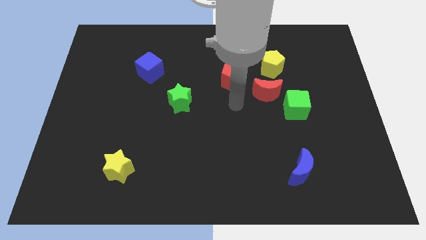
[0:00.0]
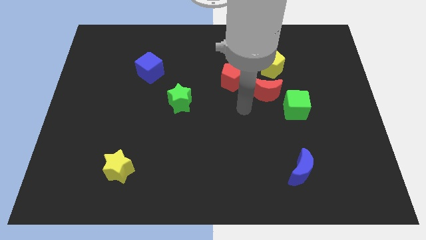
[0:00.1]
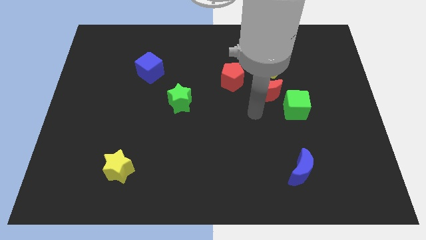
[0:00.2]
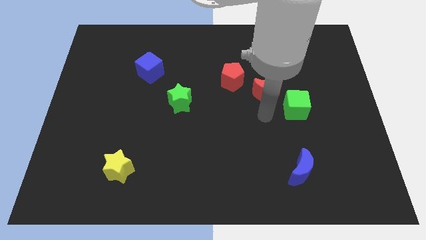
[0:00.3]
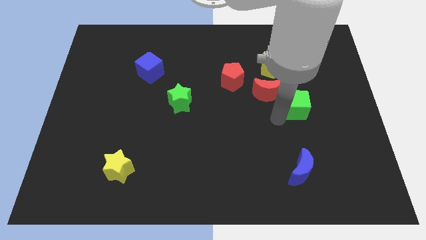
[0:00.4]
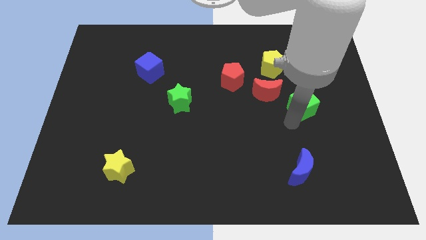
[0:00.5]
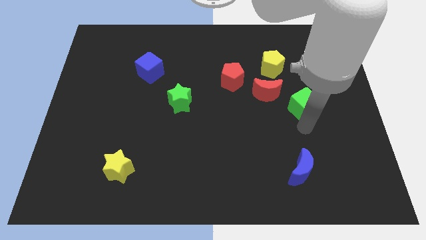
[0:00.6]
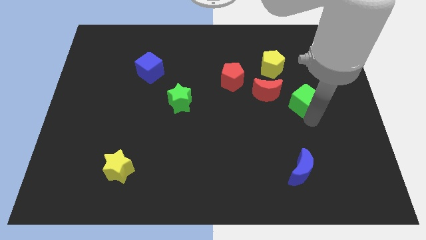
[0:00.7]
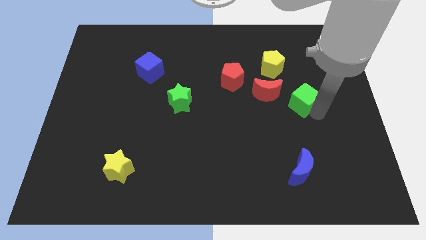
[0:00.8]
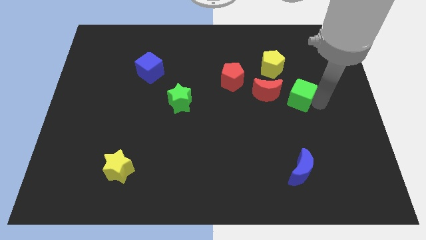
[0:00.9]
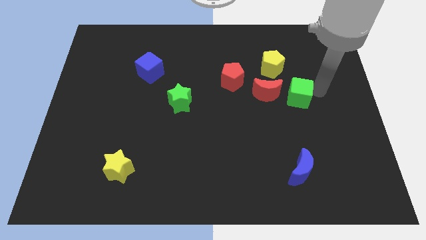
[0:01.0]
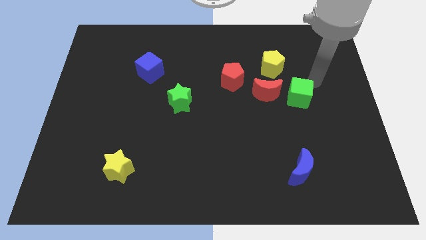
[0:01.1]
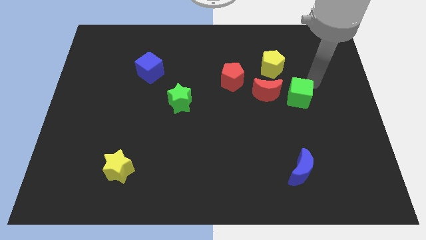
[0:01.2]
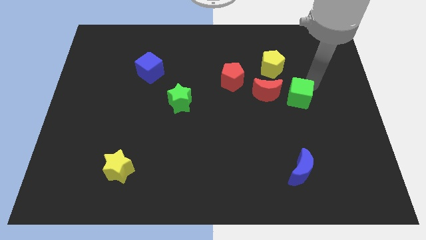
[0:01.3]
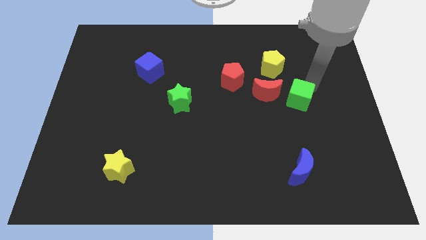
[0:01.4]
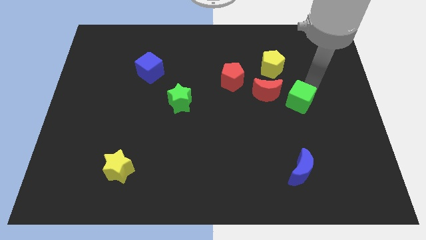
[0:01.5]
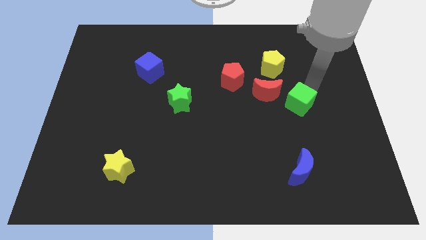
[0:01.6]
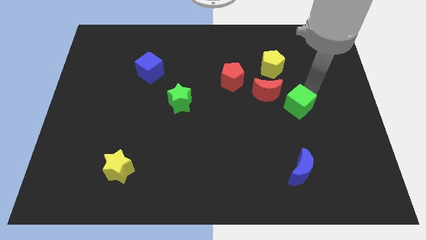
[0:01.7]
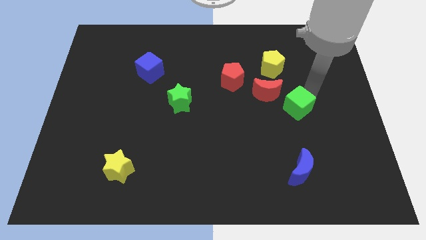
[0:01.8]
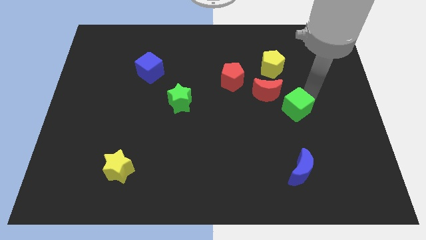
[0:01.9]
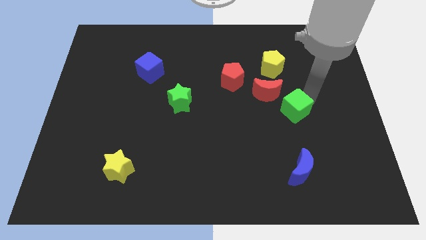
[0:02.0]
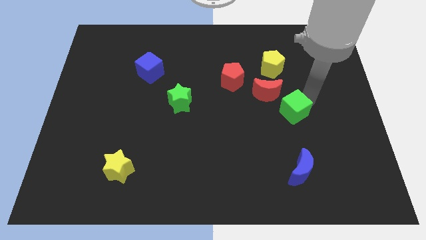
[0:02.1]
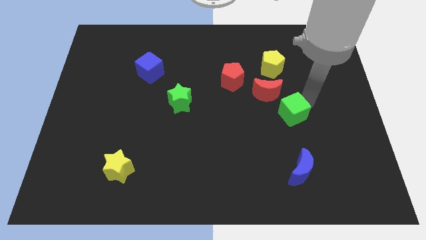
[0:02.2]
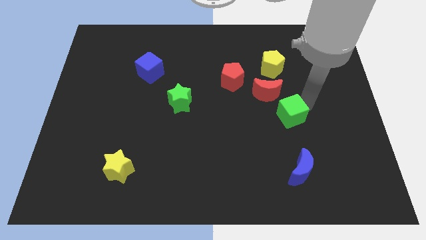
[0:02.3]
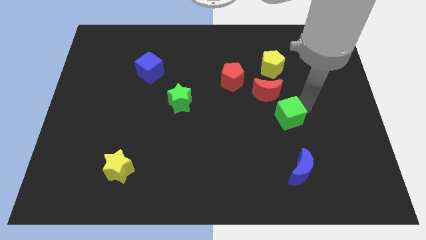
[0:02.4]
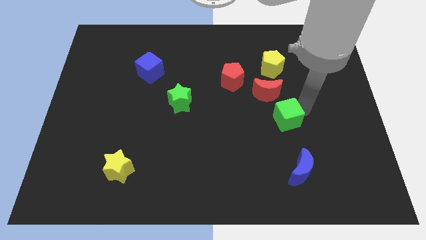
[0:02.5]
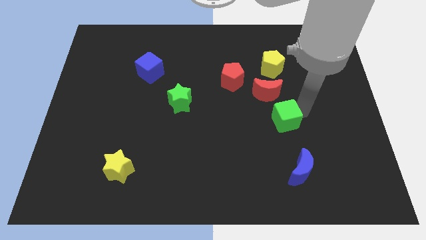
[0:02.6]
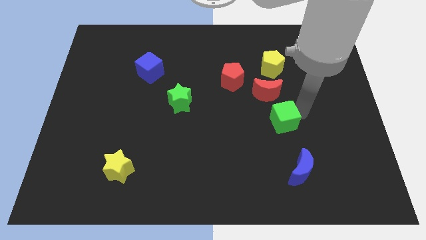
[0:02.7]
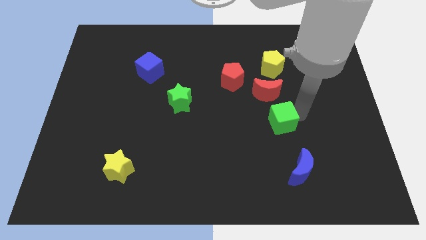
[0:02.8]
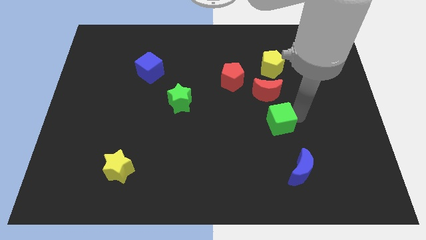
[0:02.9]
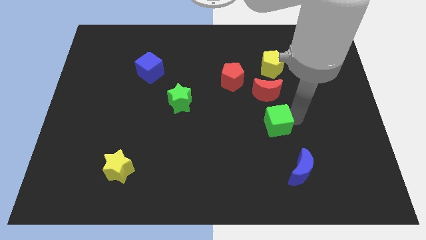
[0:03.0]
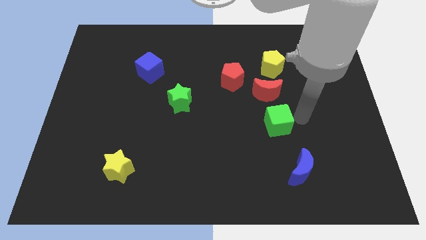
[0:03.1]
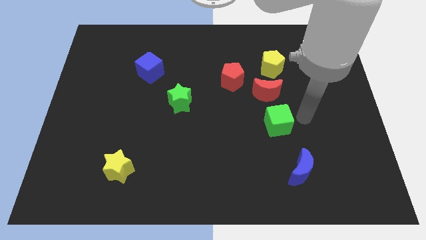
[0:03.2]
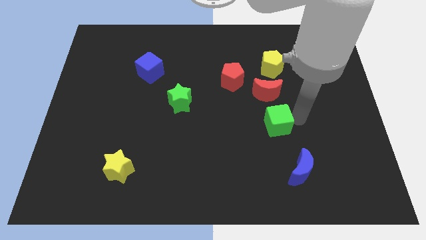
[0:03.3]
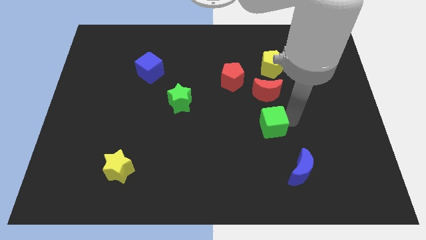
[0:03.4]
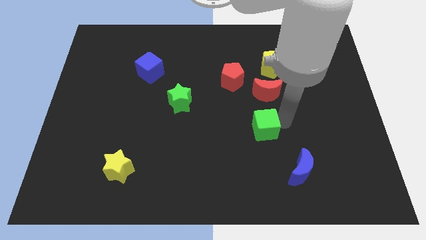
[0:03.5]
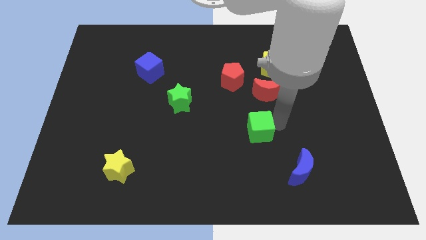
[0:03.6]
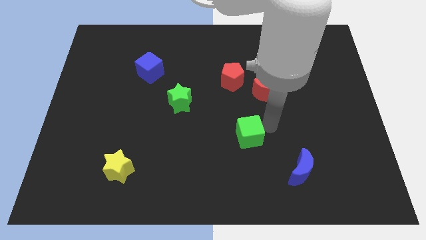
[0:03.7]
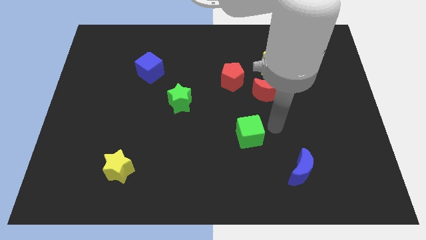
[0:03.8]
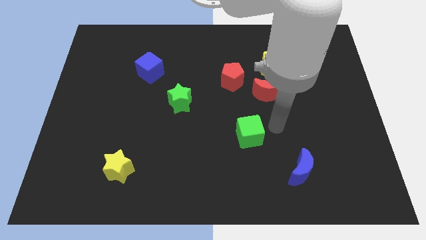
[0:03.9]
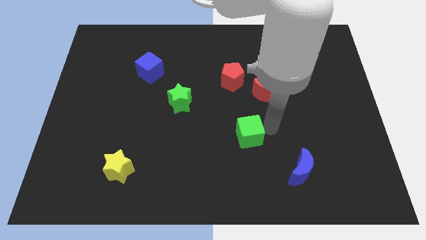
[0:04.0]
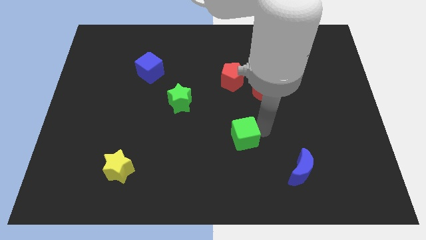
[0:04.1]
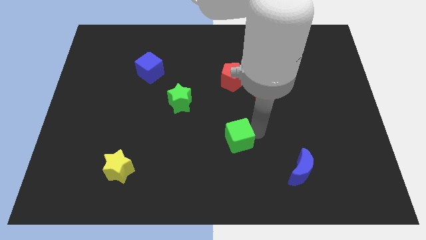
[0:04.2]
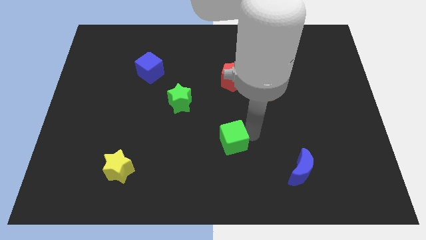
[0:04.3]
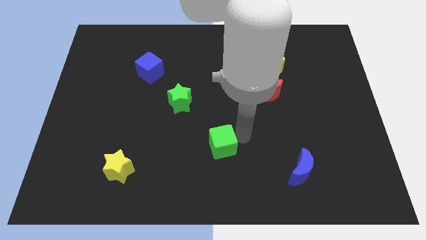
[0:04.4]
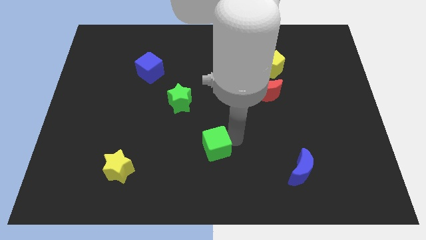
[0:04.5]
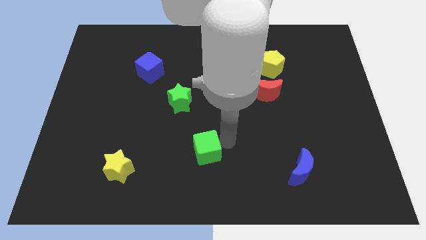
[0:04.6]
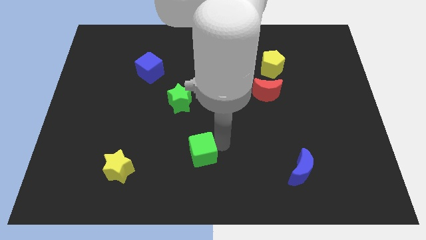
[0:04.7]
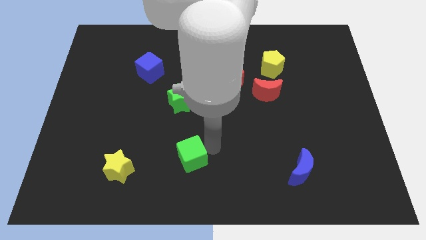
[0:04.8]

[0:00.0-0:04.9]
push the green cube to the right side of the yellow star

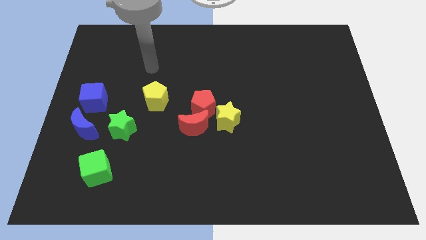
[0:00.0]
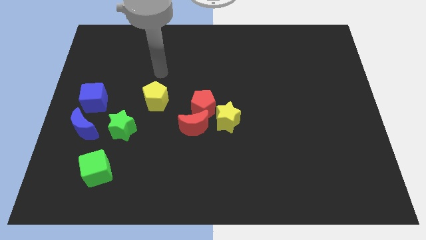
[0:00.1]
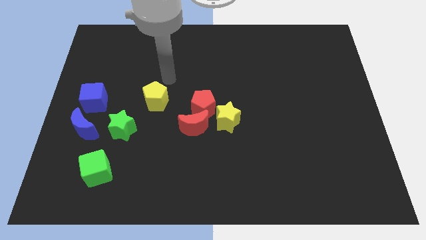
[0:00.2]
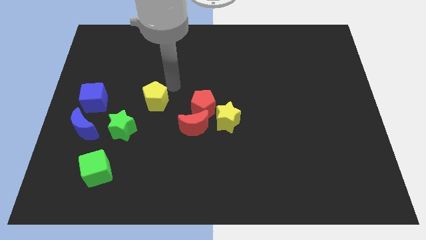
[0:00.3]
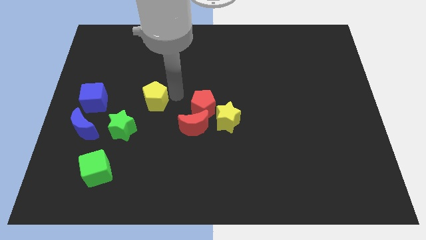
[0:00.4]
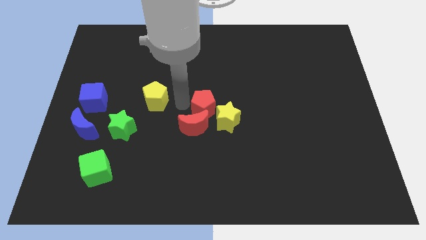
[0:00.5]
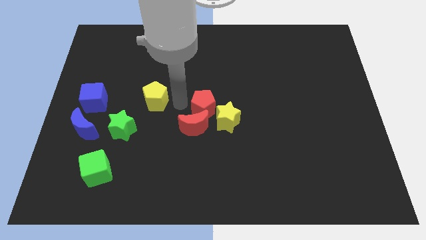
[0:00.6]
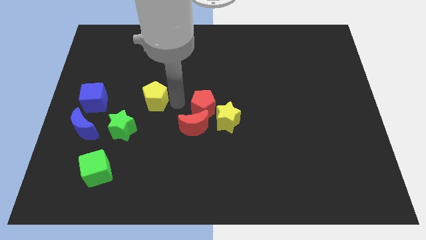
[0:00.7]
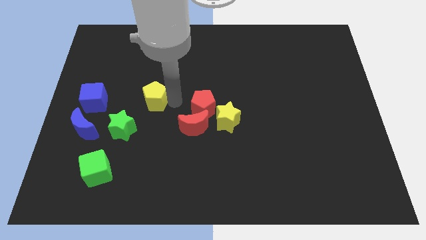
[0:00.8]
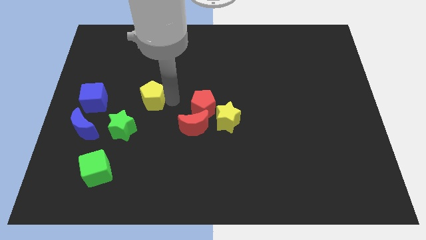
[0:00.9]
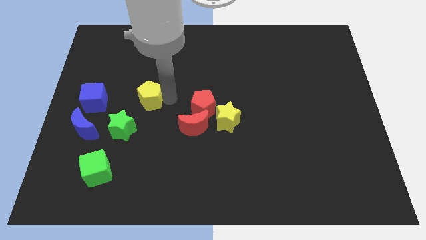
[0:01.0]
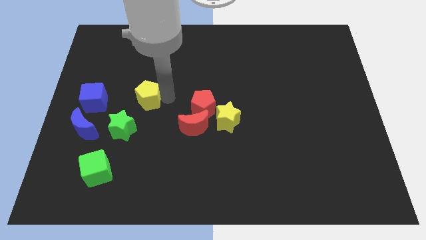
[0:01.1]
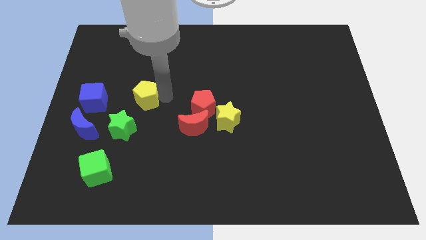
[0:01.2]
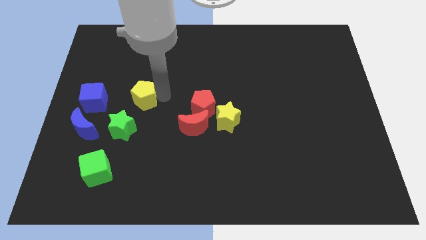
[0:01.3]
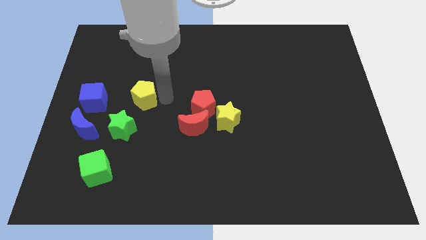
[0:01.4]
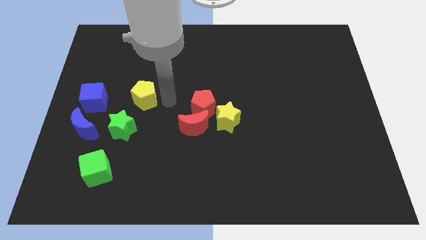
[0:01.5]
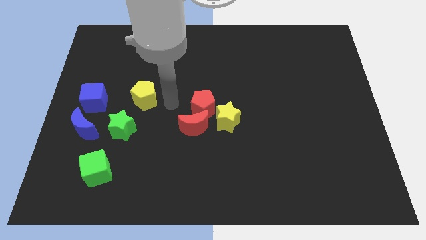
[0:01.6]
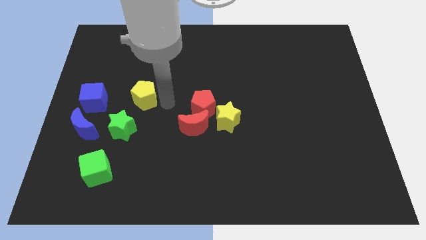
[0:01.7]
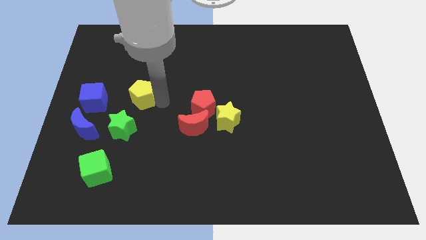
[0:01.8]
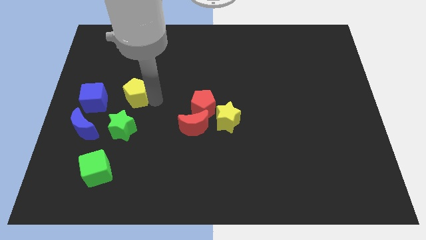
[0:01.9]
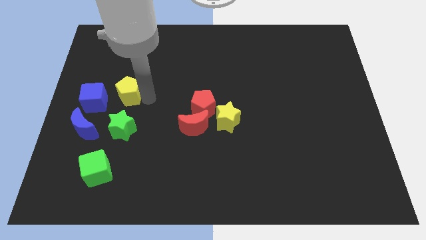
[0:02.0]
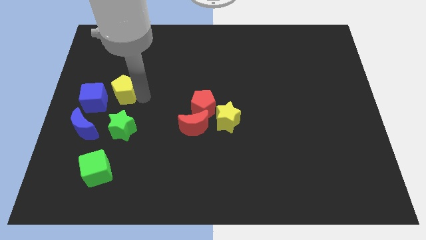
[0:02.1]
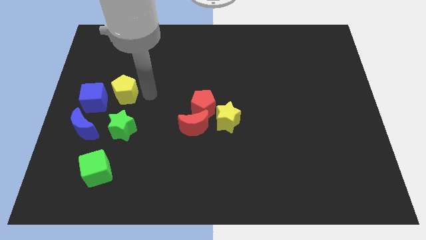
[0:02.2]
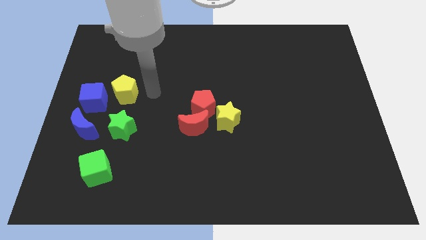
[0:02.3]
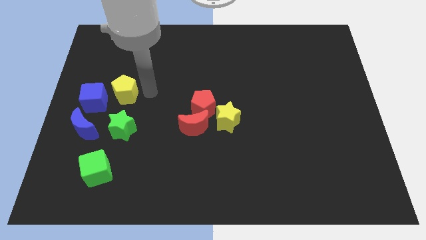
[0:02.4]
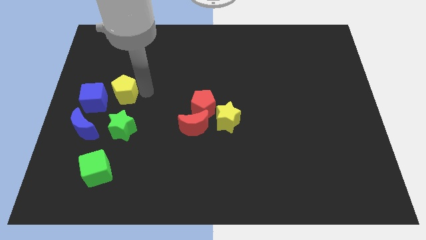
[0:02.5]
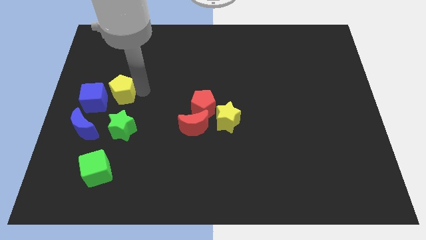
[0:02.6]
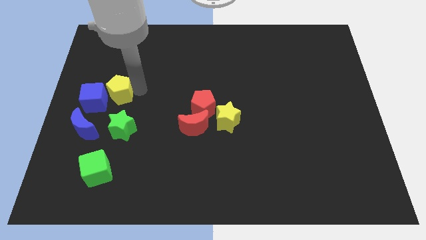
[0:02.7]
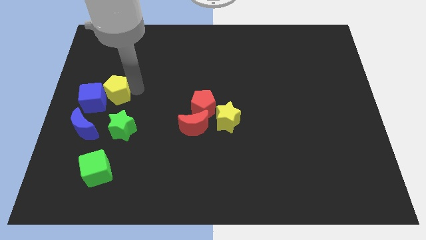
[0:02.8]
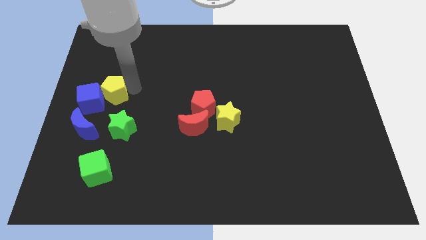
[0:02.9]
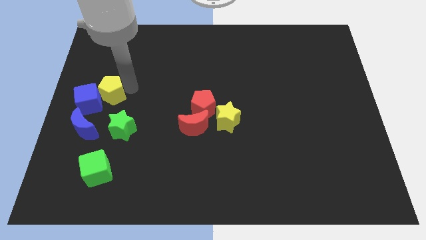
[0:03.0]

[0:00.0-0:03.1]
slide the yellow pentagon above the blue moon
